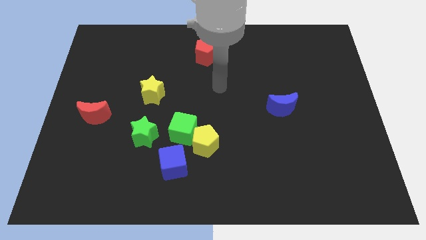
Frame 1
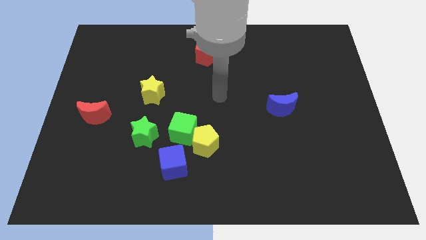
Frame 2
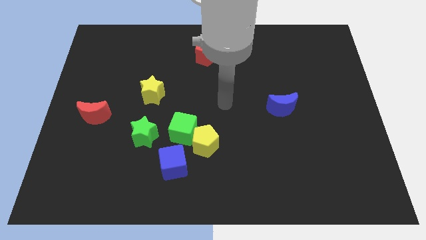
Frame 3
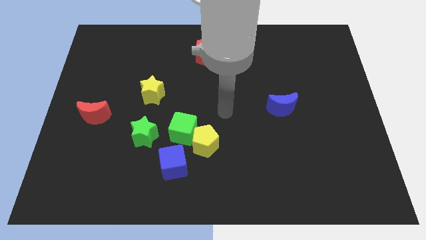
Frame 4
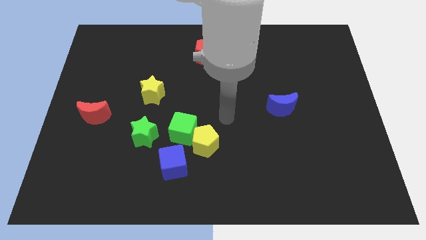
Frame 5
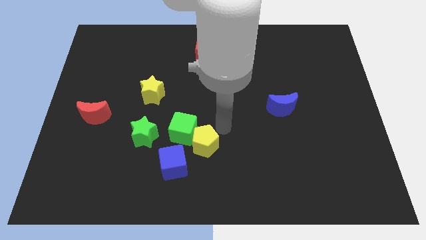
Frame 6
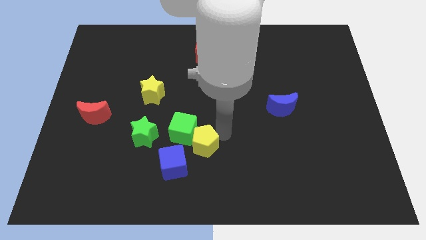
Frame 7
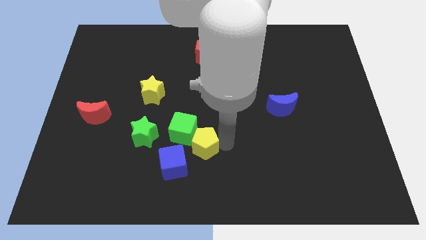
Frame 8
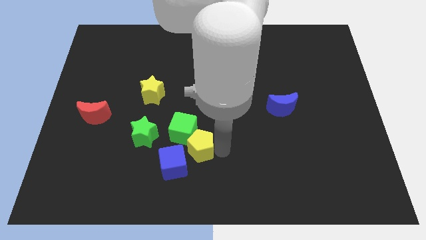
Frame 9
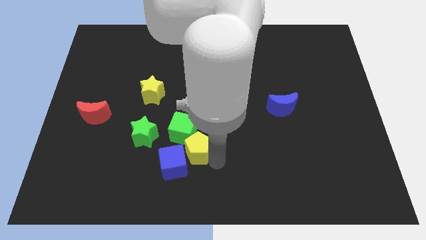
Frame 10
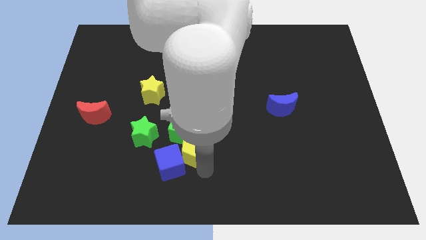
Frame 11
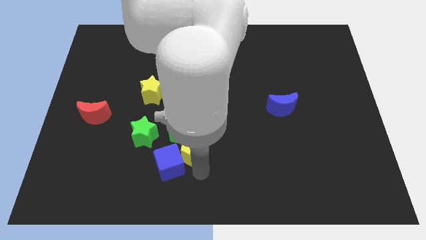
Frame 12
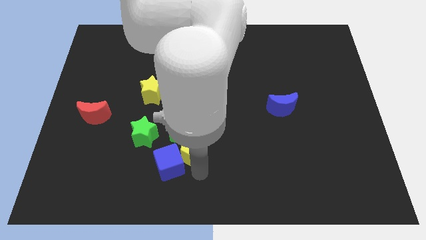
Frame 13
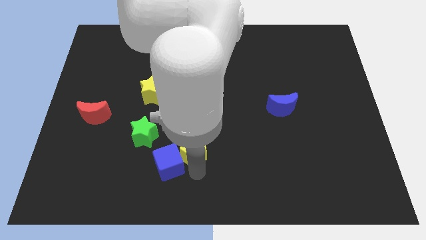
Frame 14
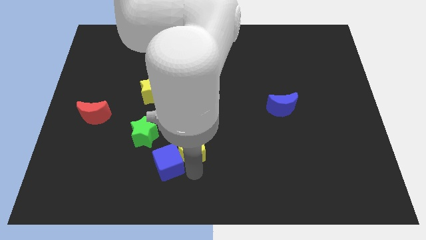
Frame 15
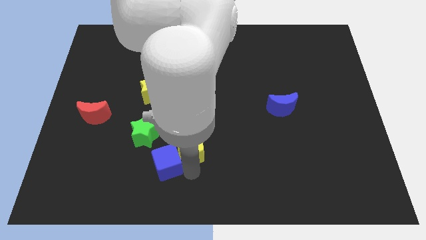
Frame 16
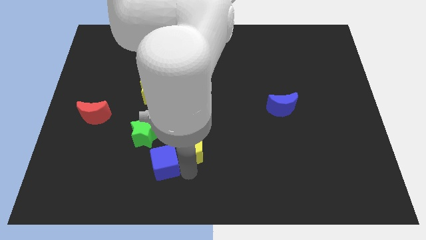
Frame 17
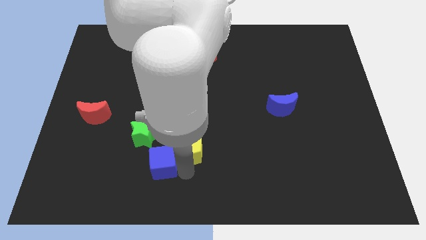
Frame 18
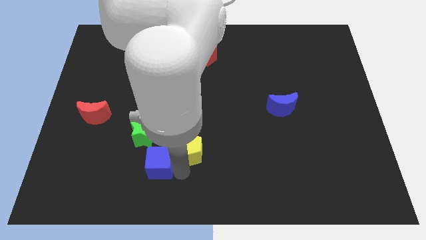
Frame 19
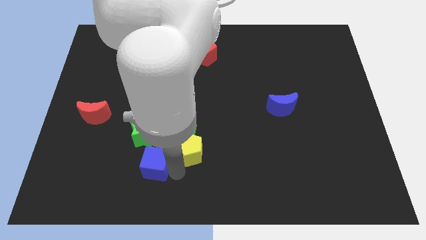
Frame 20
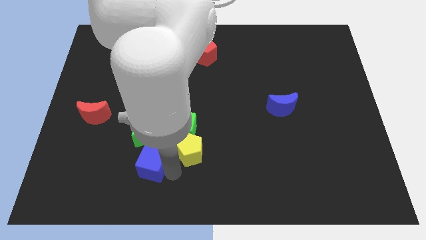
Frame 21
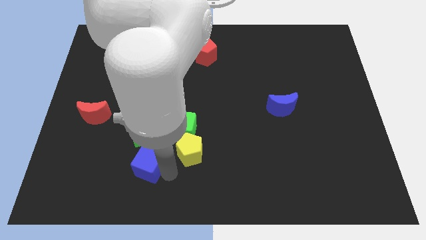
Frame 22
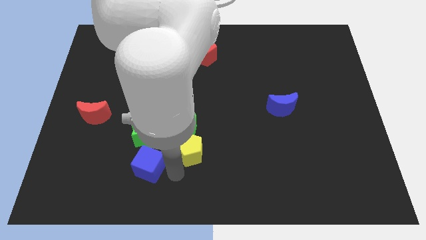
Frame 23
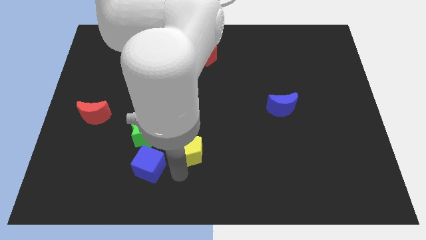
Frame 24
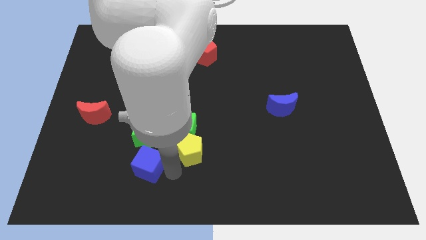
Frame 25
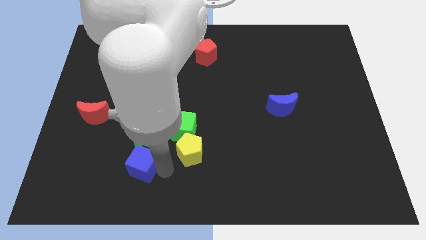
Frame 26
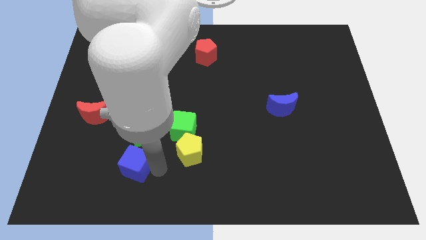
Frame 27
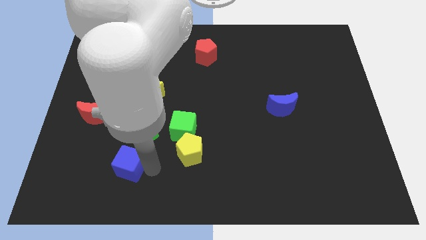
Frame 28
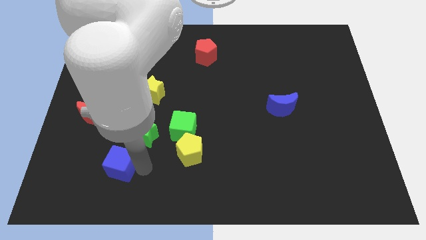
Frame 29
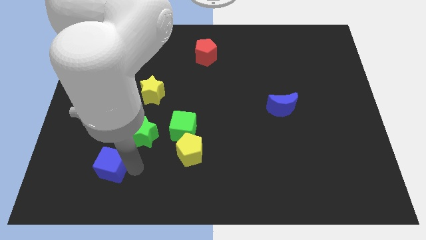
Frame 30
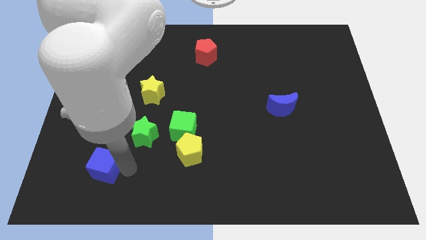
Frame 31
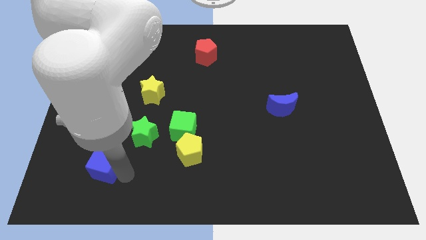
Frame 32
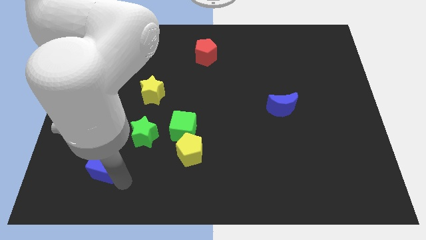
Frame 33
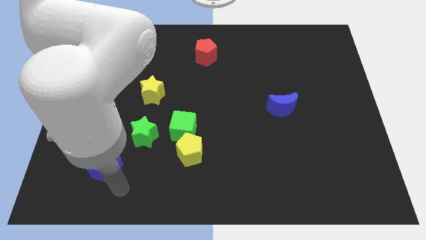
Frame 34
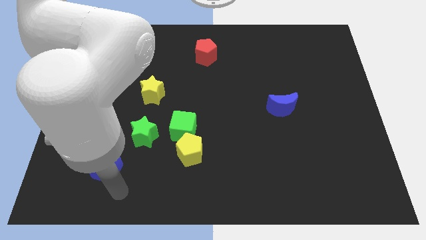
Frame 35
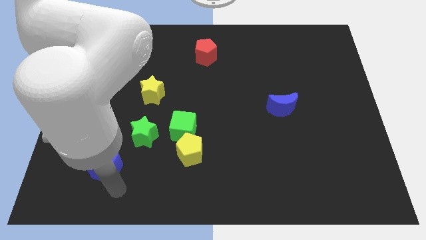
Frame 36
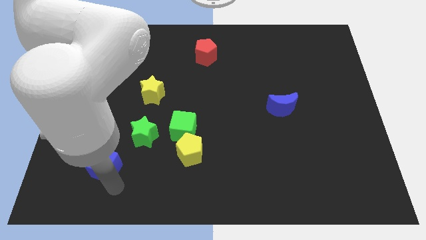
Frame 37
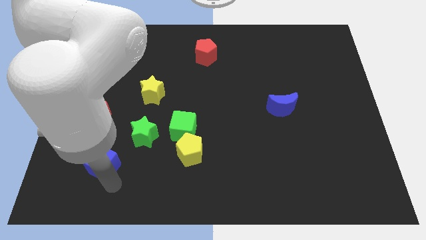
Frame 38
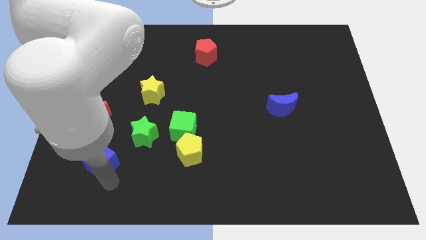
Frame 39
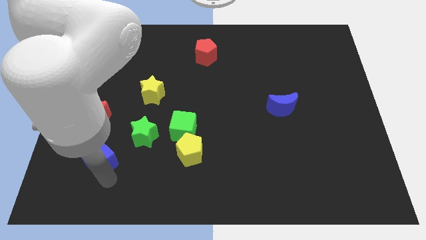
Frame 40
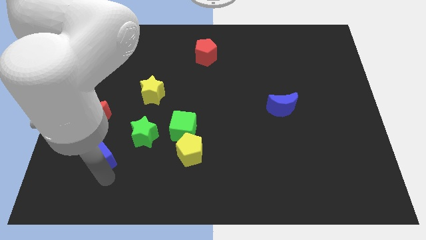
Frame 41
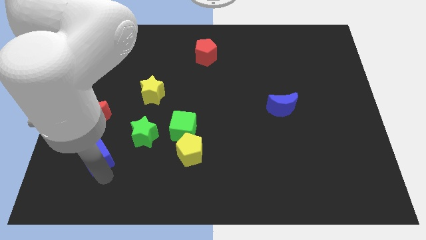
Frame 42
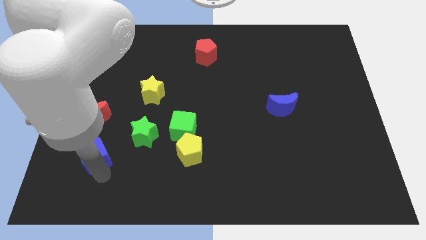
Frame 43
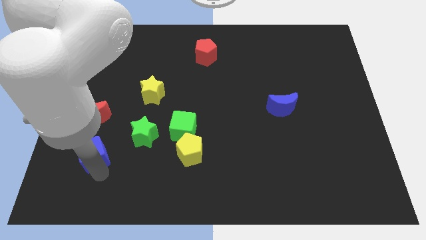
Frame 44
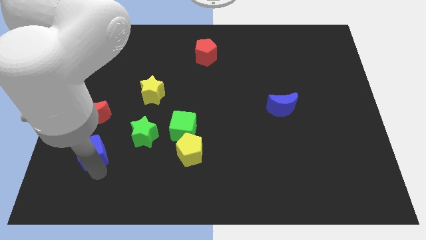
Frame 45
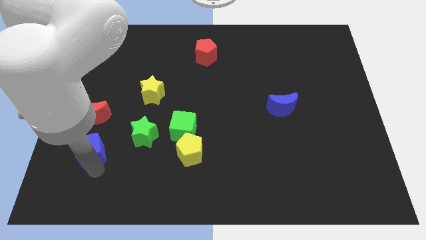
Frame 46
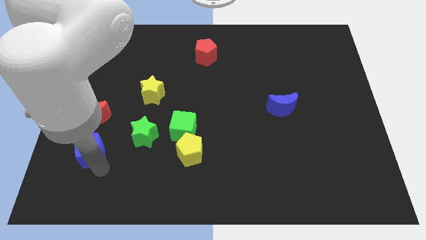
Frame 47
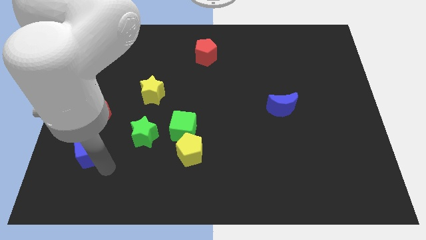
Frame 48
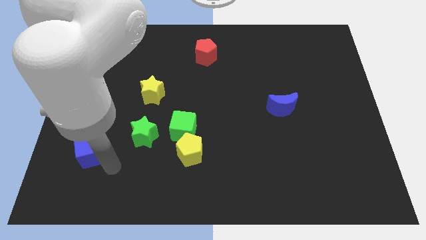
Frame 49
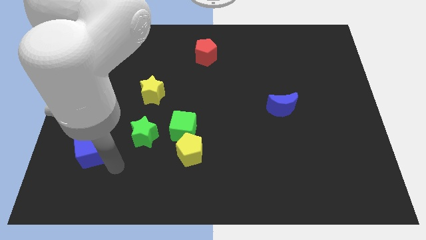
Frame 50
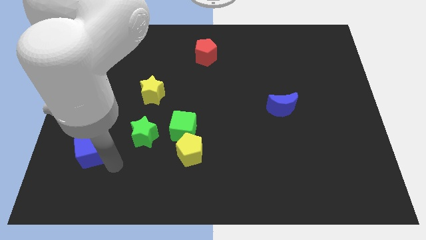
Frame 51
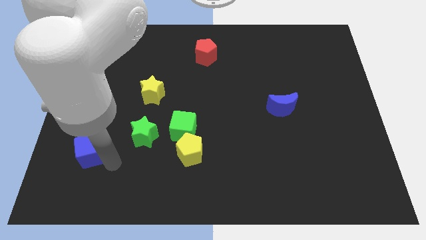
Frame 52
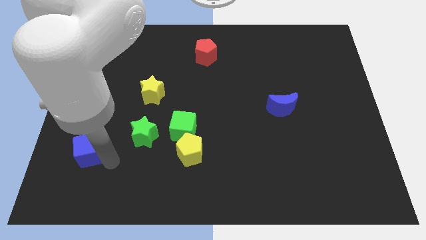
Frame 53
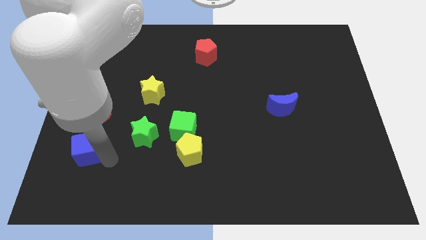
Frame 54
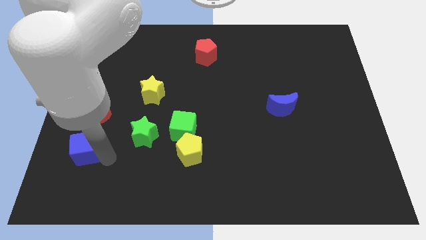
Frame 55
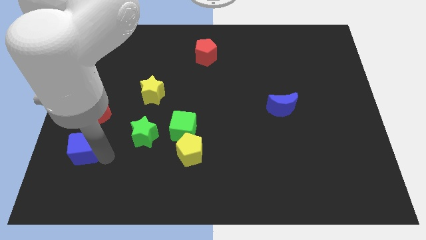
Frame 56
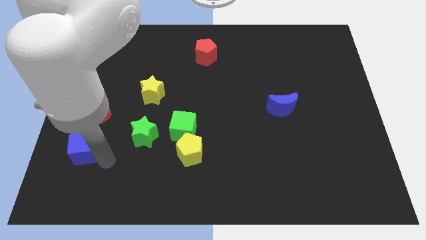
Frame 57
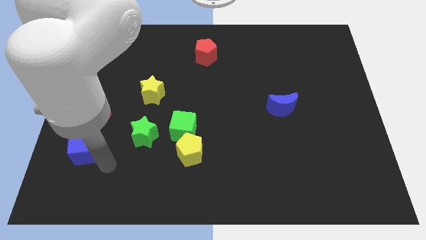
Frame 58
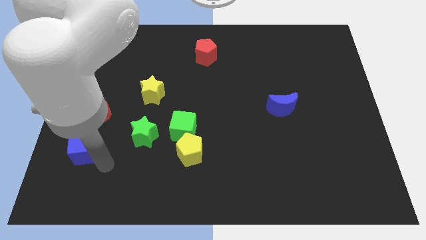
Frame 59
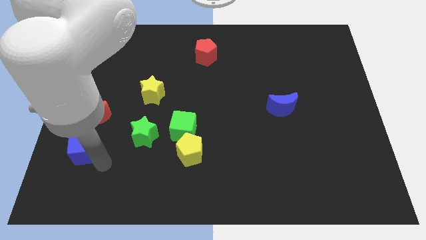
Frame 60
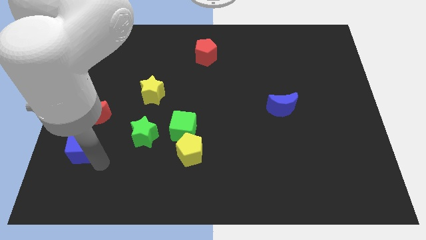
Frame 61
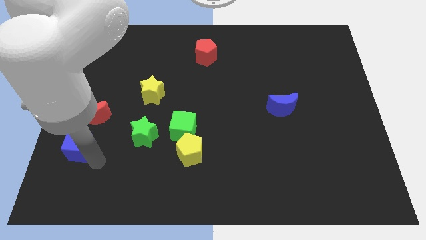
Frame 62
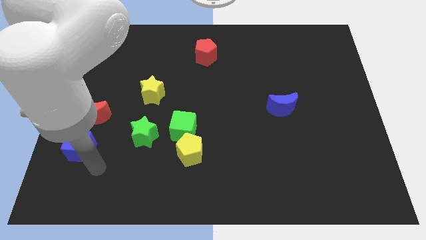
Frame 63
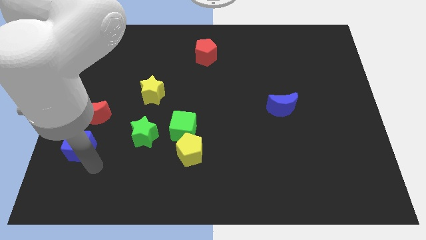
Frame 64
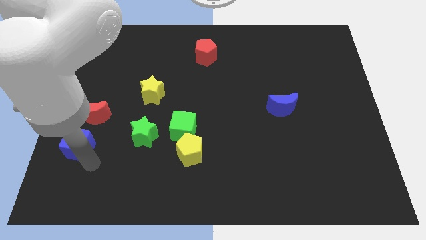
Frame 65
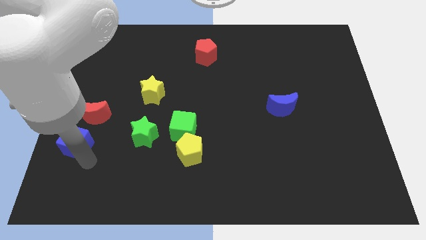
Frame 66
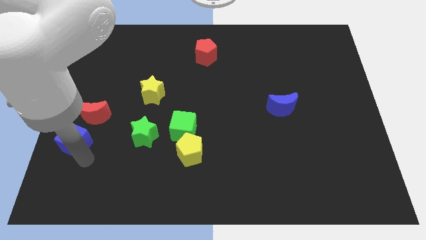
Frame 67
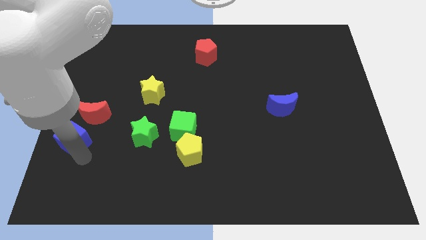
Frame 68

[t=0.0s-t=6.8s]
slide the blue cube to the left side of the board
